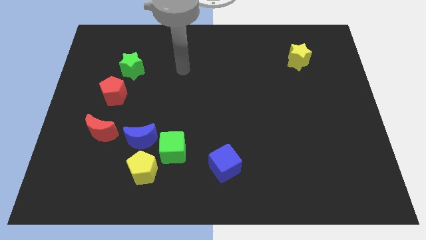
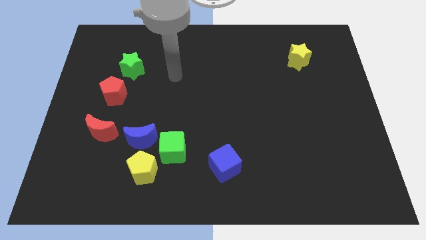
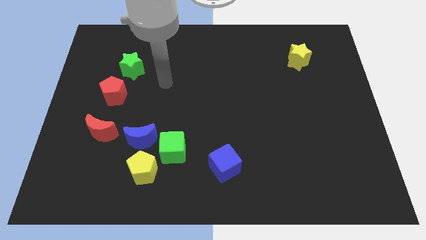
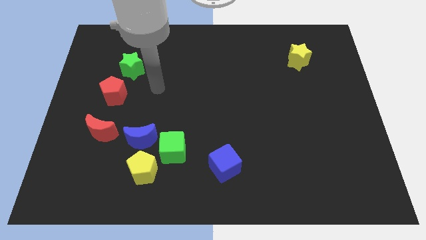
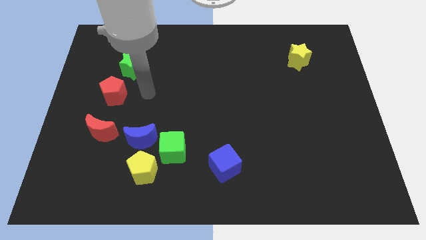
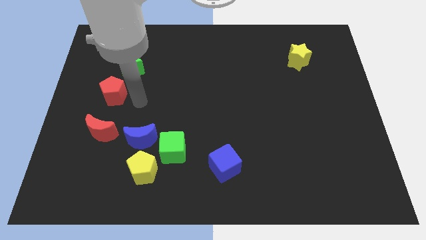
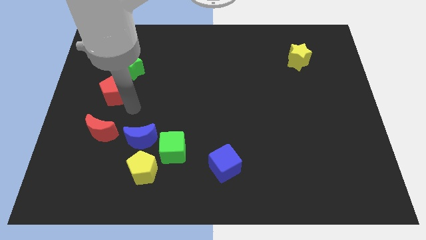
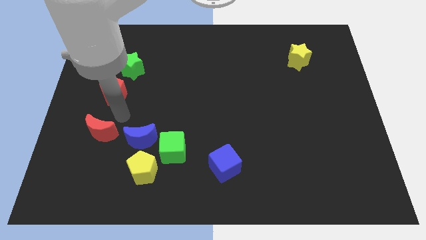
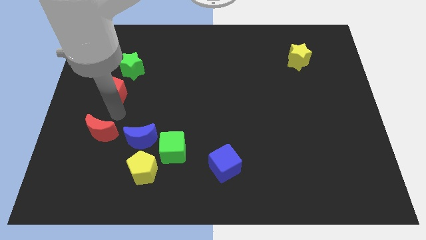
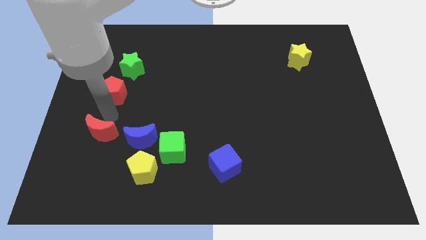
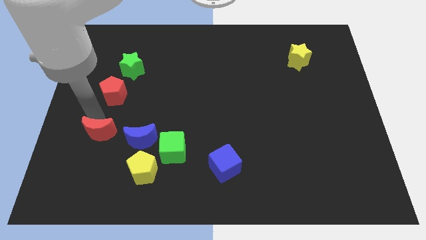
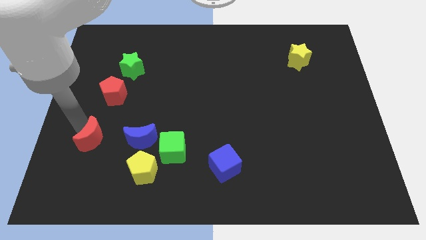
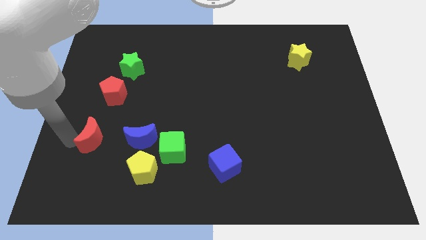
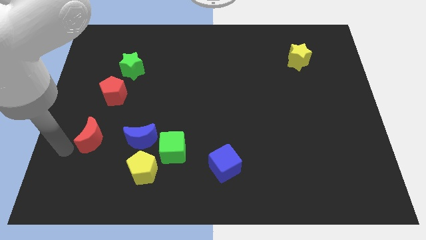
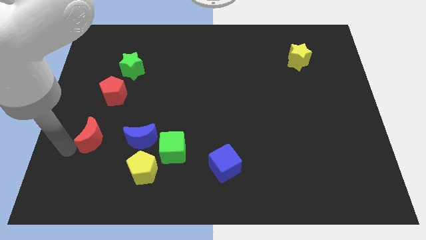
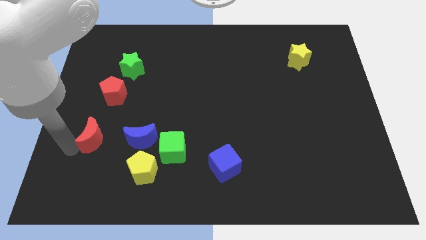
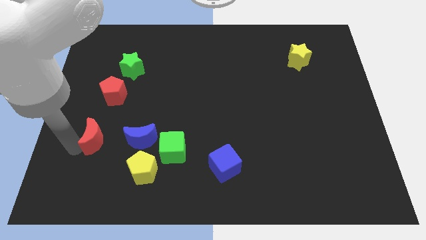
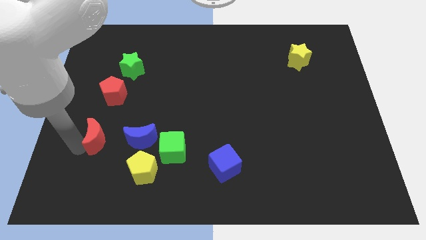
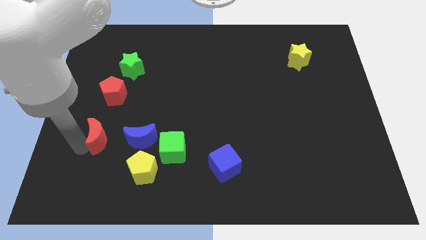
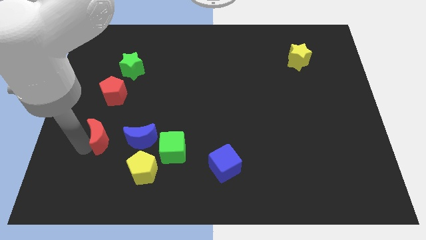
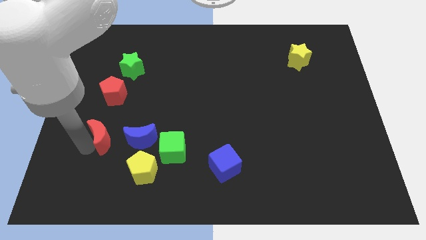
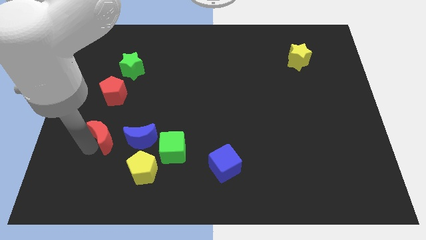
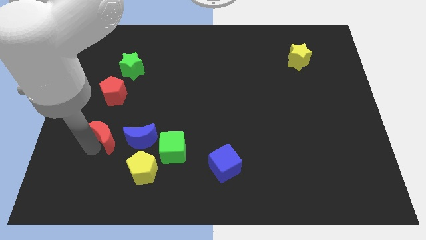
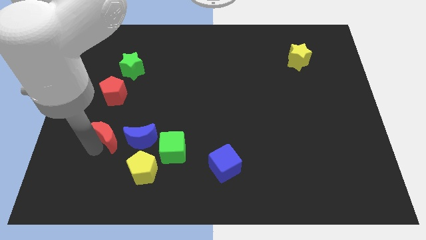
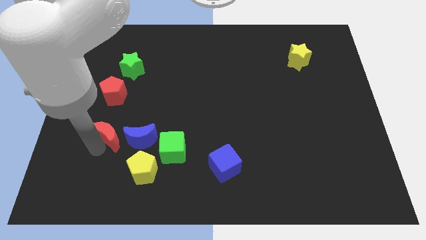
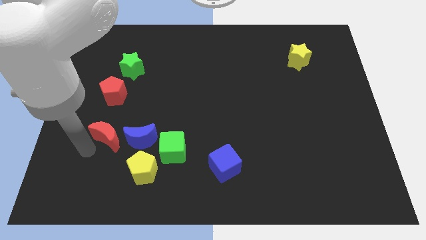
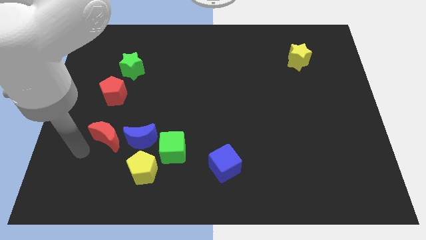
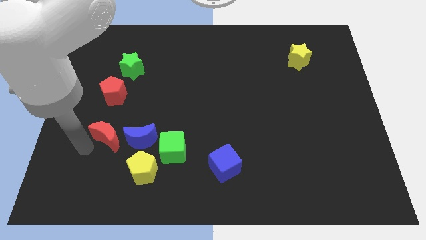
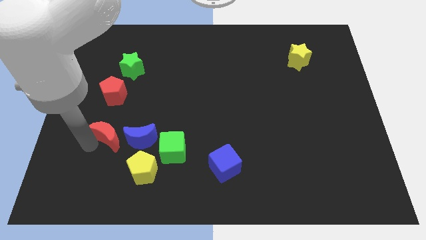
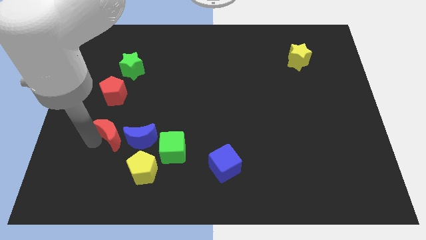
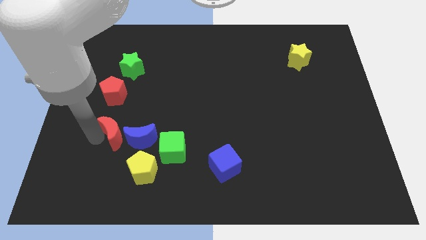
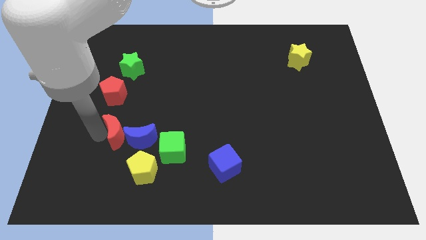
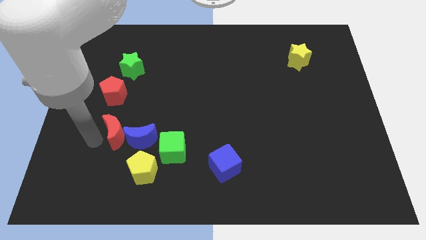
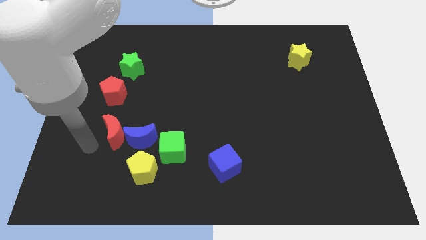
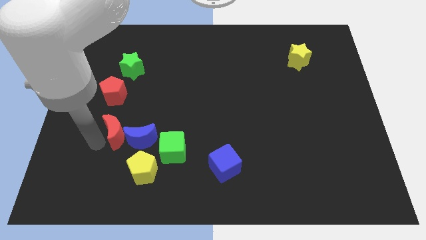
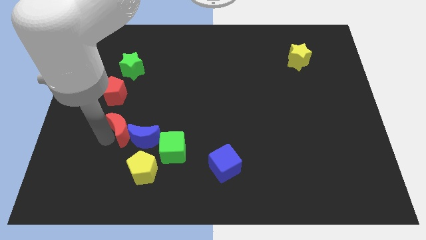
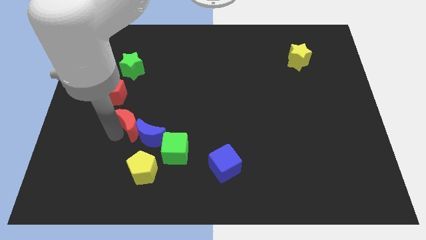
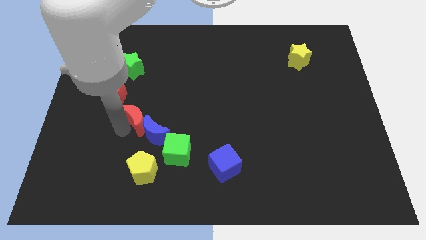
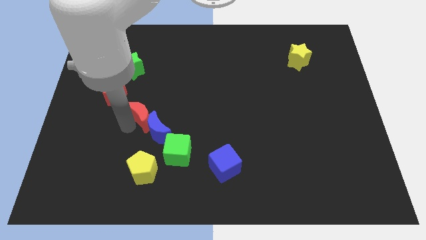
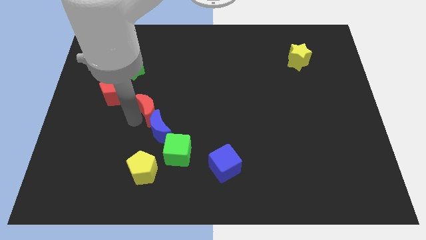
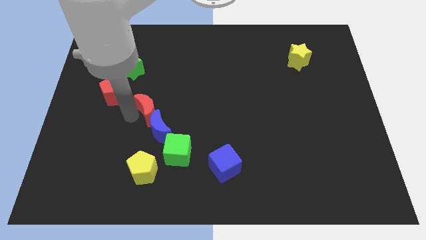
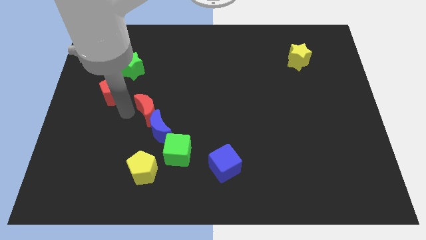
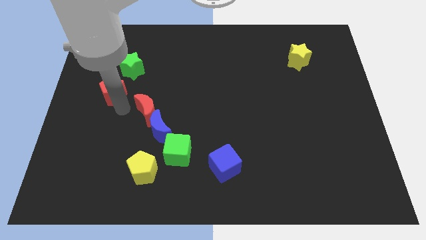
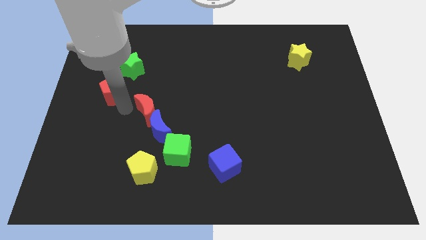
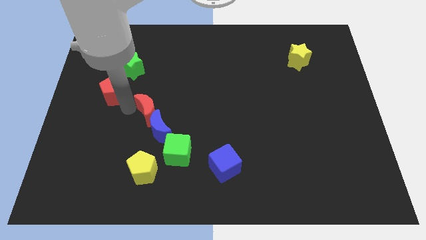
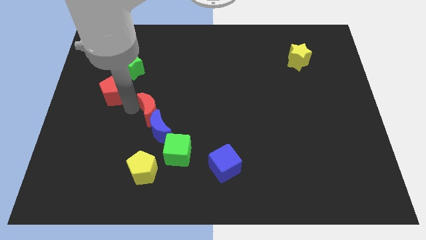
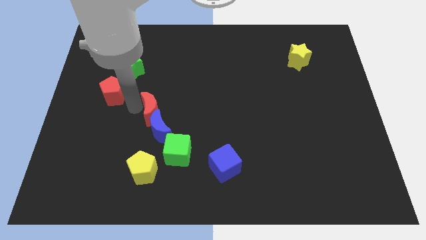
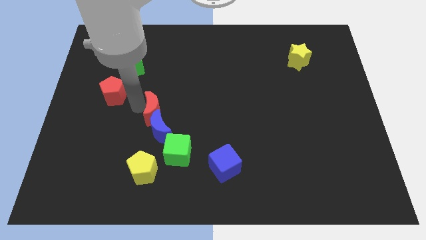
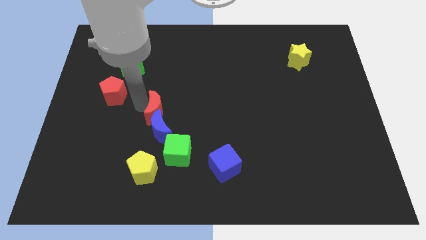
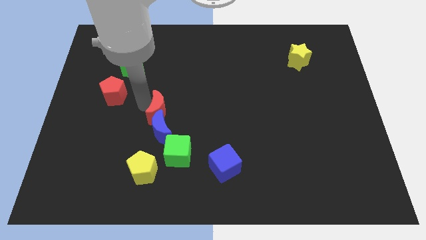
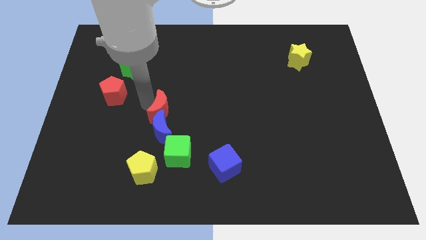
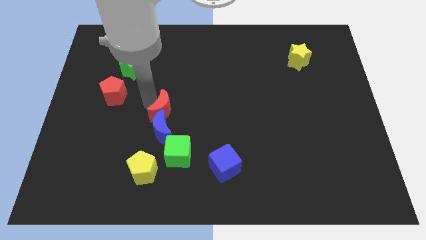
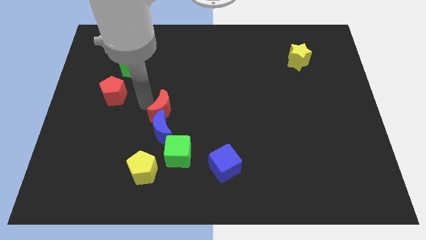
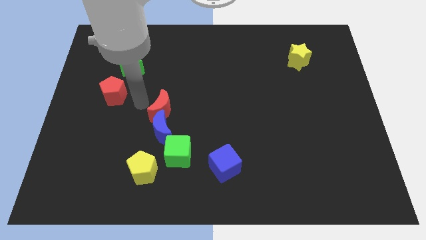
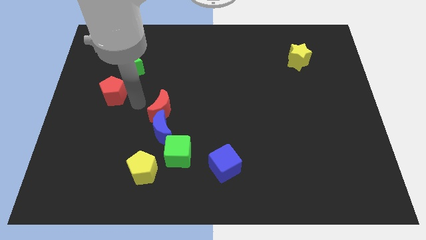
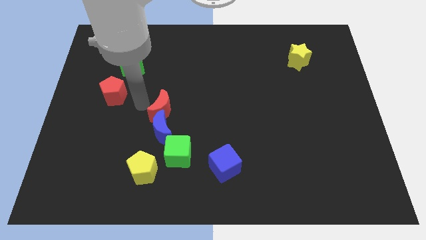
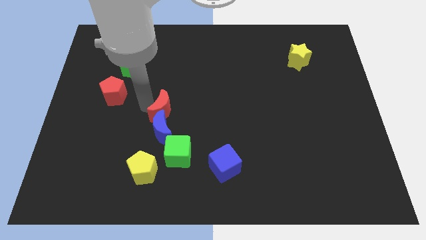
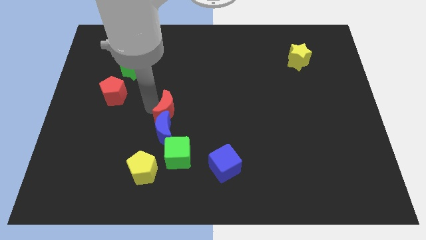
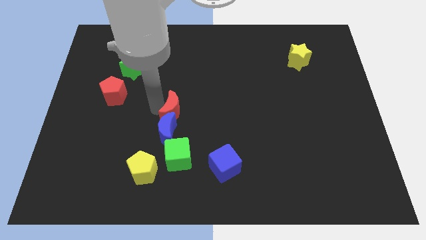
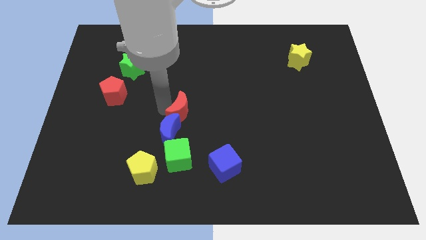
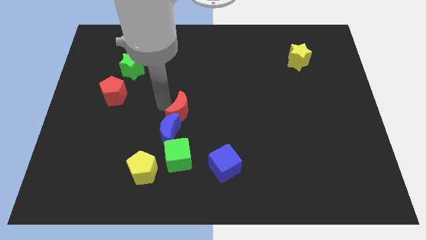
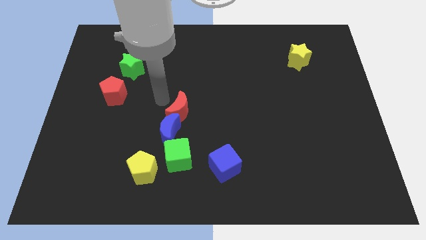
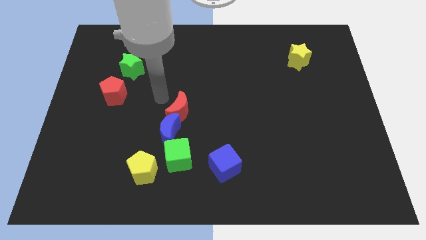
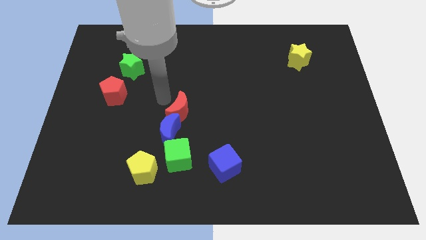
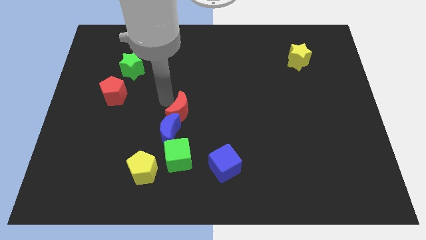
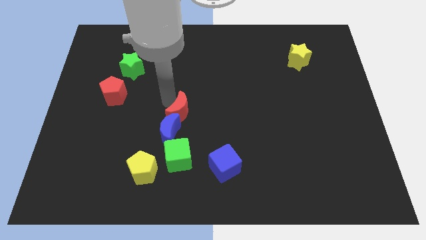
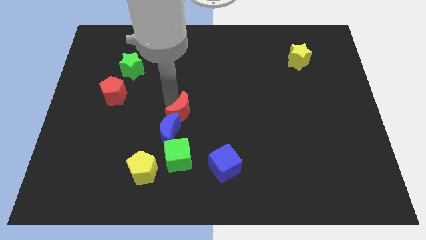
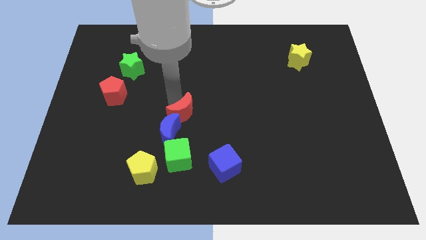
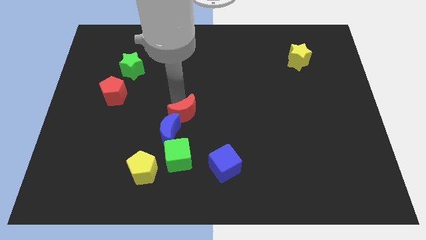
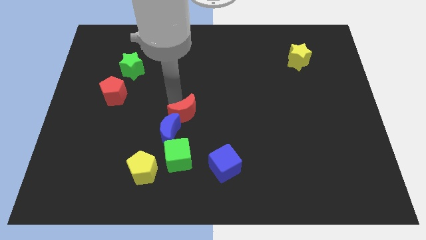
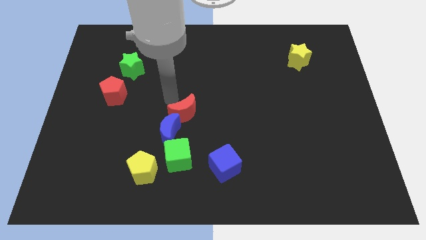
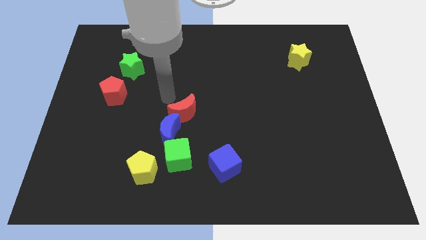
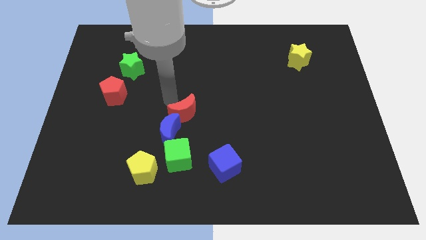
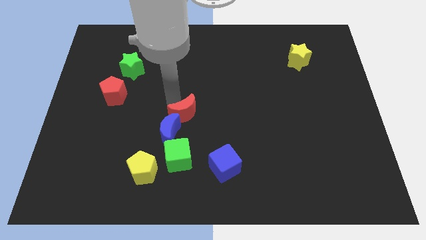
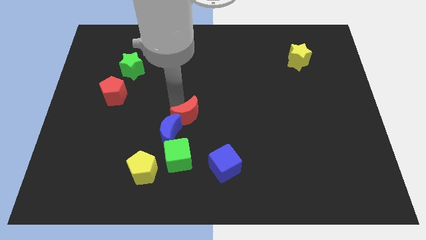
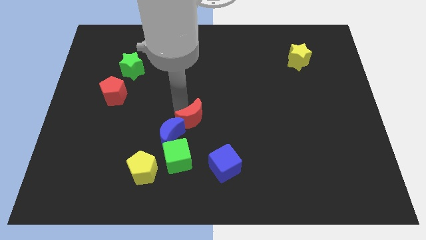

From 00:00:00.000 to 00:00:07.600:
slide the red moon to the right side of the blue moon
